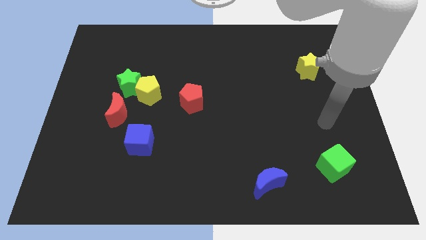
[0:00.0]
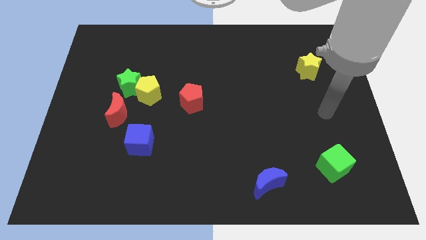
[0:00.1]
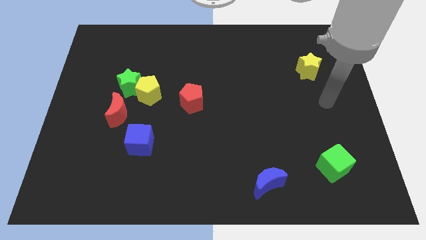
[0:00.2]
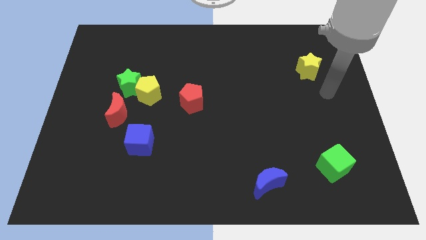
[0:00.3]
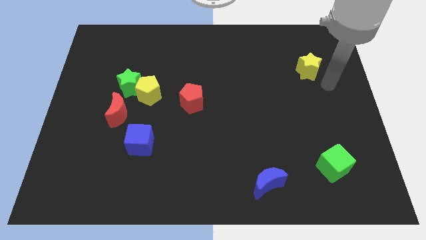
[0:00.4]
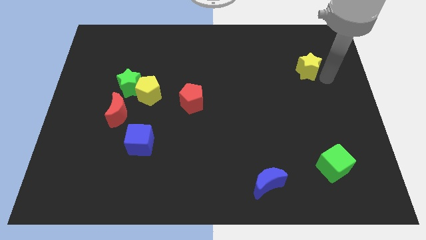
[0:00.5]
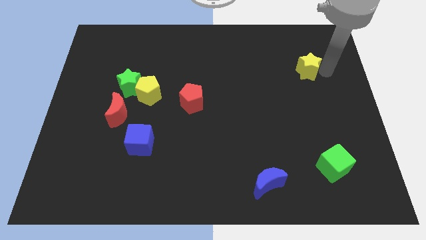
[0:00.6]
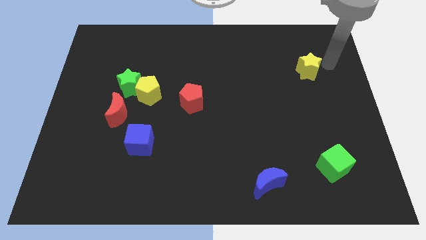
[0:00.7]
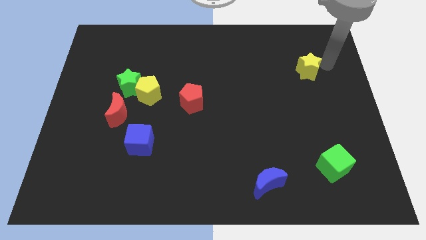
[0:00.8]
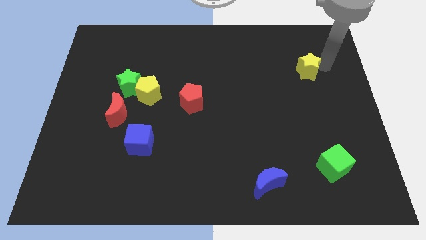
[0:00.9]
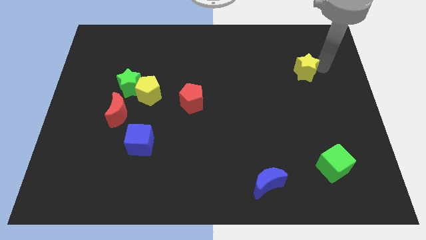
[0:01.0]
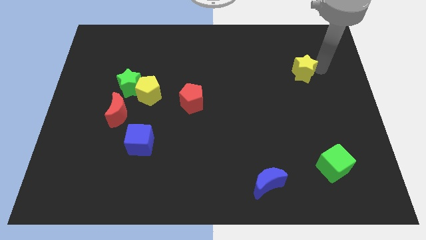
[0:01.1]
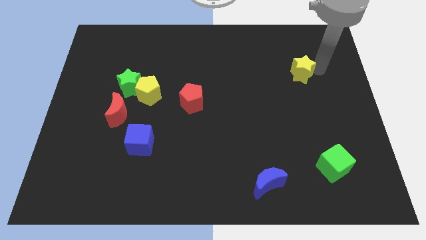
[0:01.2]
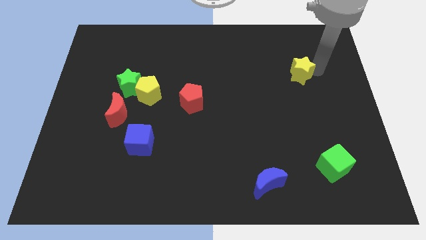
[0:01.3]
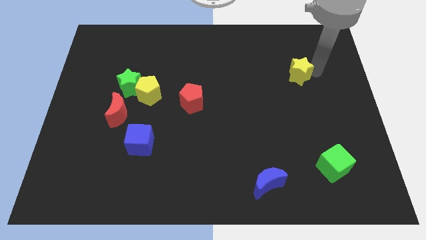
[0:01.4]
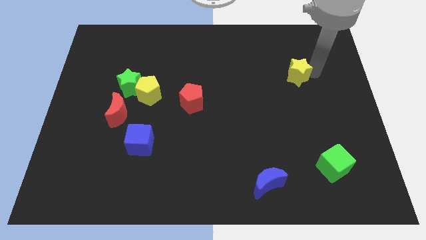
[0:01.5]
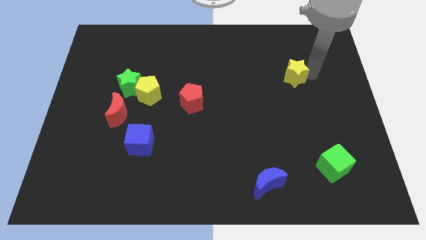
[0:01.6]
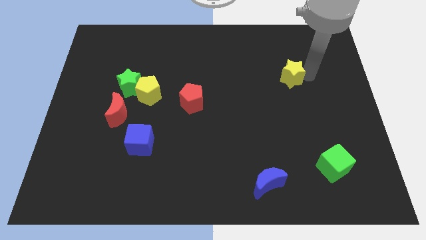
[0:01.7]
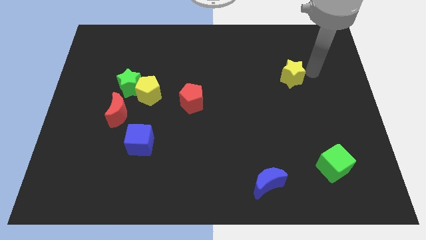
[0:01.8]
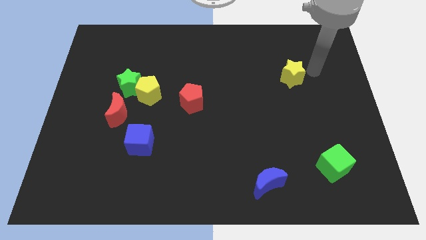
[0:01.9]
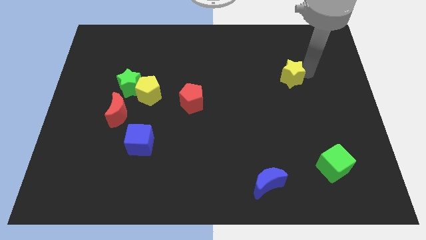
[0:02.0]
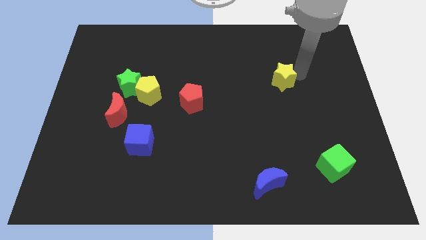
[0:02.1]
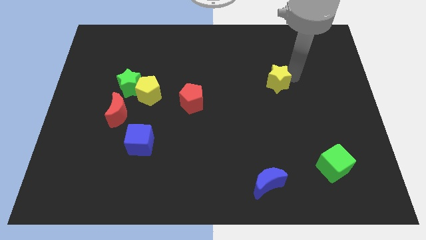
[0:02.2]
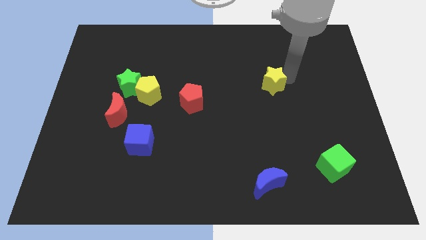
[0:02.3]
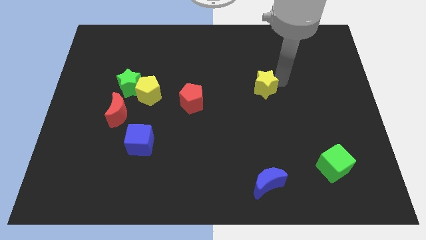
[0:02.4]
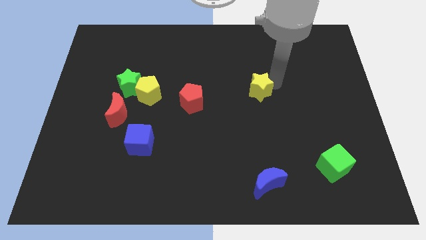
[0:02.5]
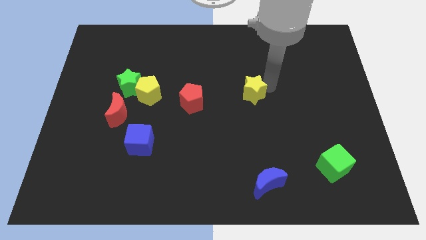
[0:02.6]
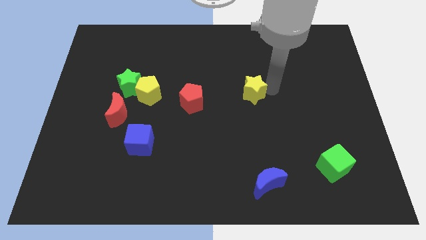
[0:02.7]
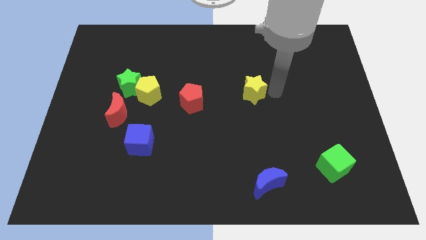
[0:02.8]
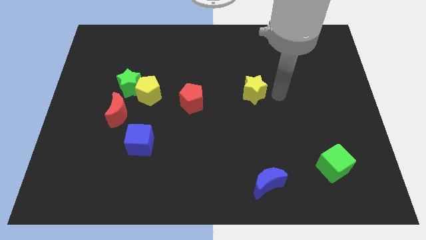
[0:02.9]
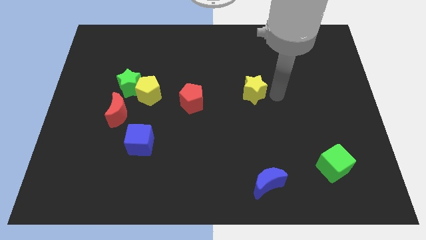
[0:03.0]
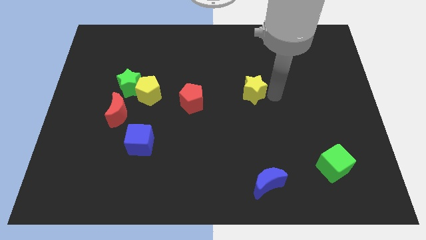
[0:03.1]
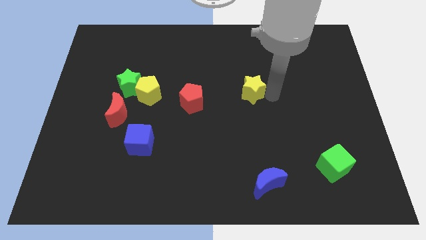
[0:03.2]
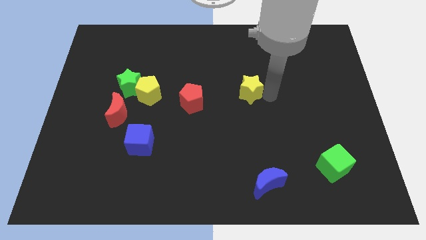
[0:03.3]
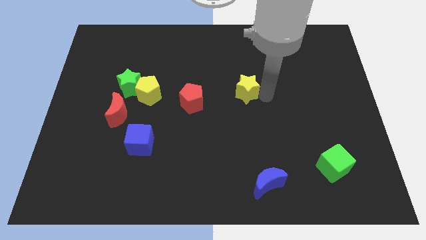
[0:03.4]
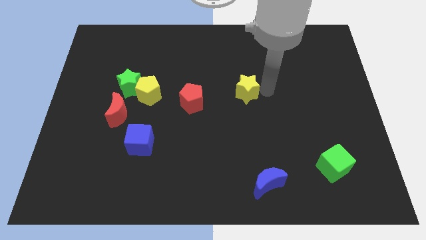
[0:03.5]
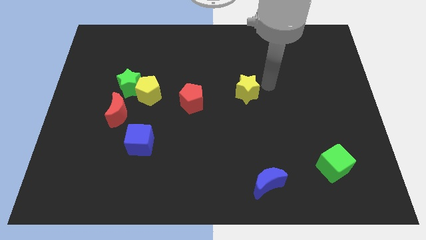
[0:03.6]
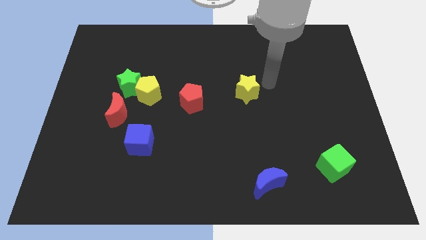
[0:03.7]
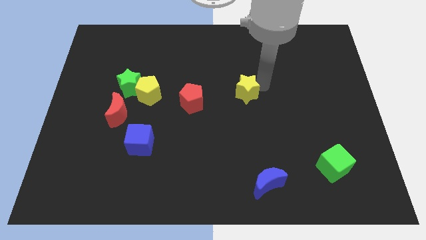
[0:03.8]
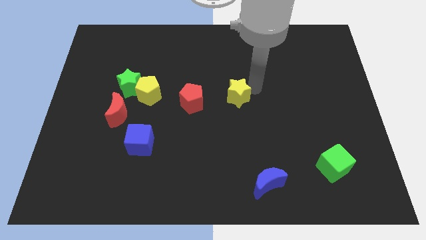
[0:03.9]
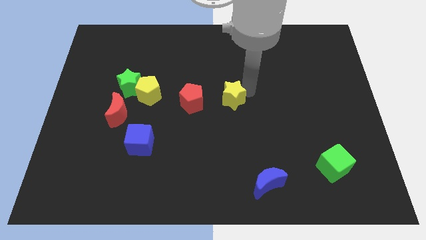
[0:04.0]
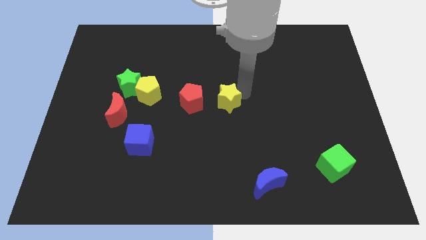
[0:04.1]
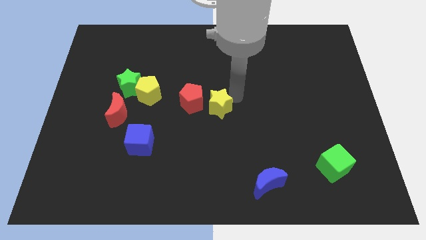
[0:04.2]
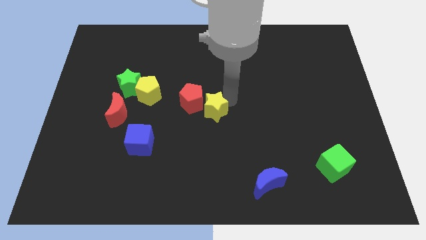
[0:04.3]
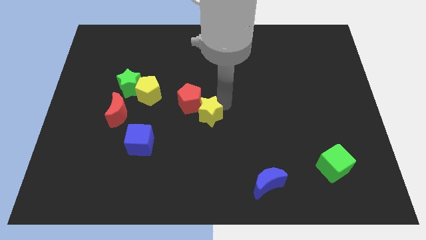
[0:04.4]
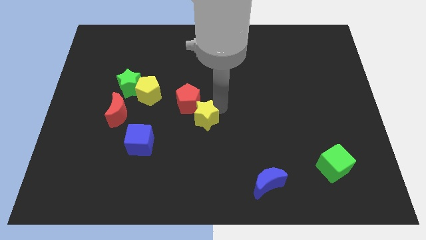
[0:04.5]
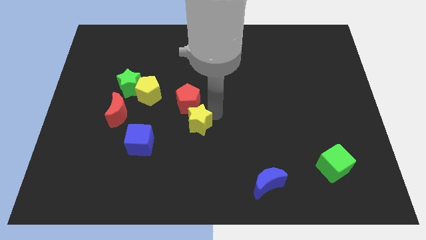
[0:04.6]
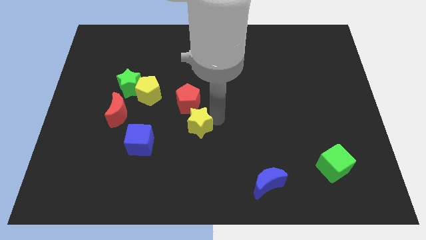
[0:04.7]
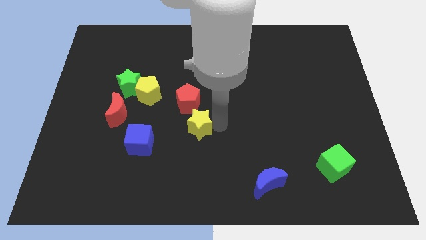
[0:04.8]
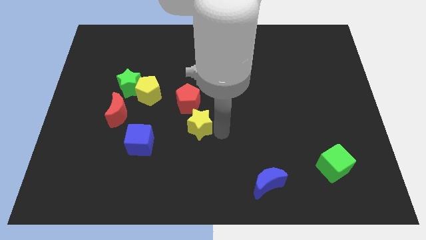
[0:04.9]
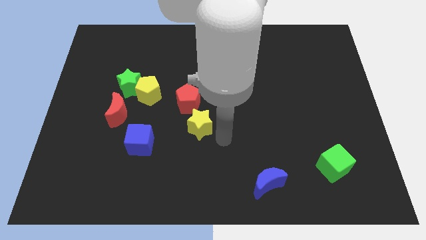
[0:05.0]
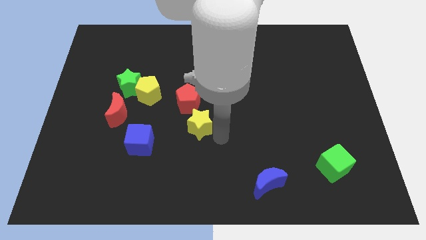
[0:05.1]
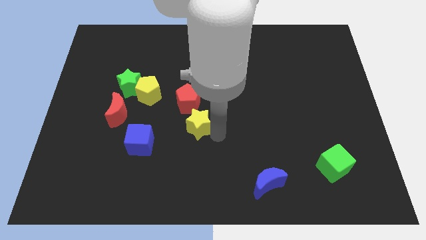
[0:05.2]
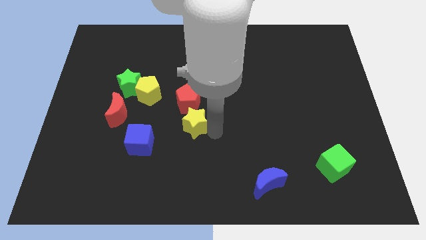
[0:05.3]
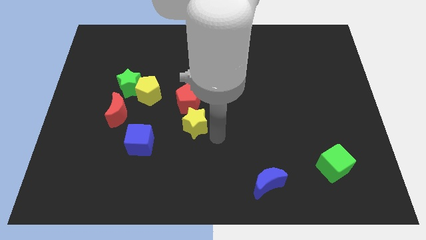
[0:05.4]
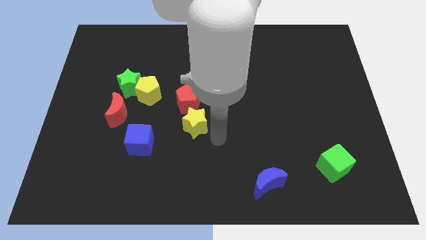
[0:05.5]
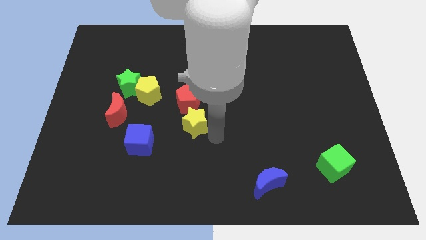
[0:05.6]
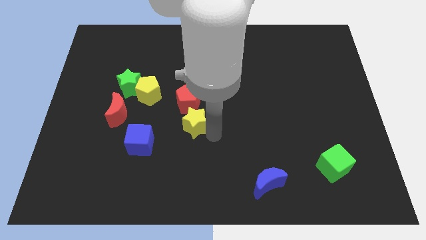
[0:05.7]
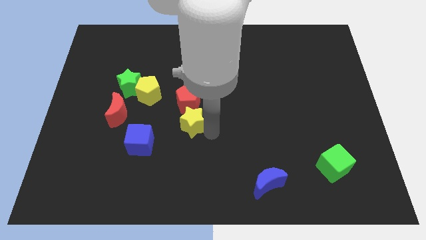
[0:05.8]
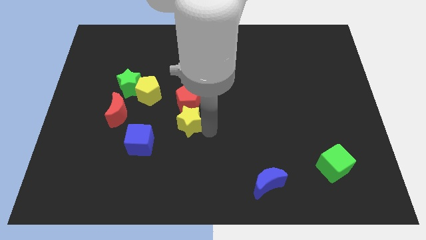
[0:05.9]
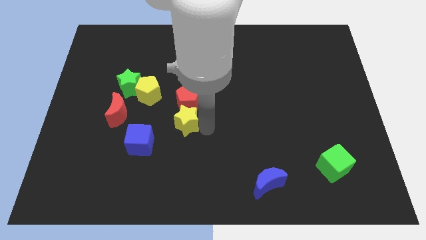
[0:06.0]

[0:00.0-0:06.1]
push the yellow star to the bottom right side of the yellow pentagon

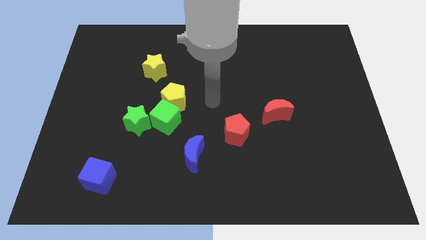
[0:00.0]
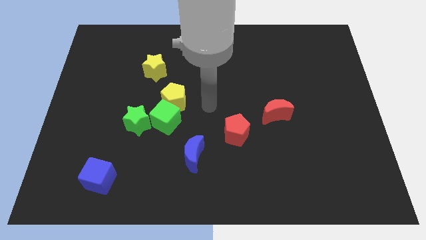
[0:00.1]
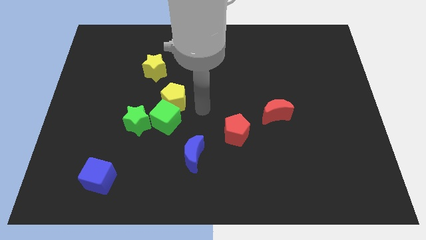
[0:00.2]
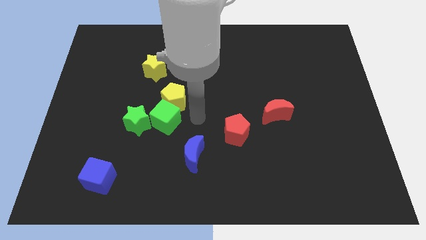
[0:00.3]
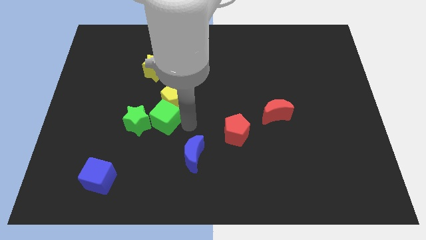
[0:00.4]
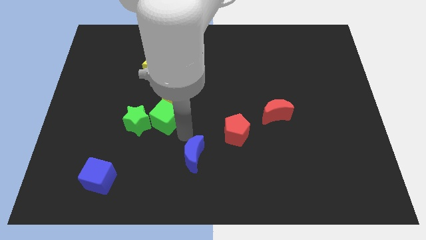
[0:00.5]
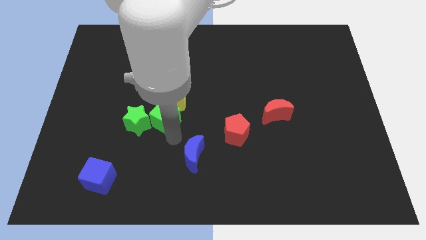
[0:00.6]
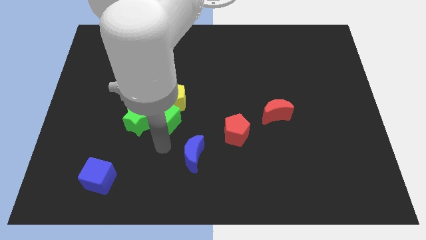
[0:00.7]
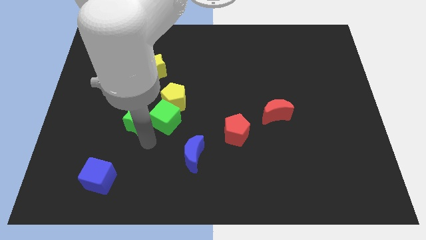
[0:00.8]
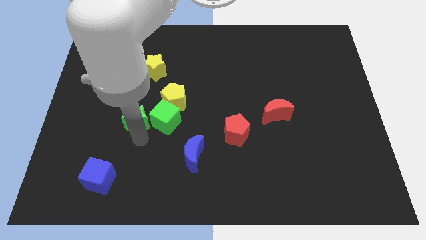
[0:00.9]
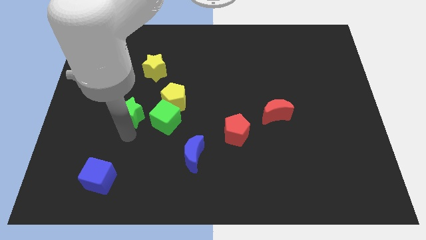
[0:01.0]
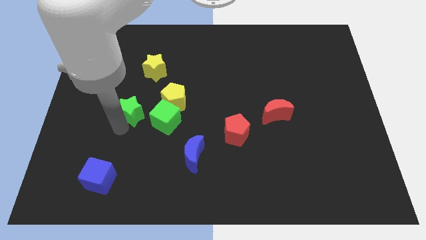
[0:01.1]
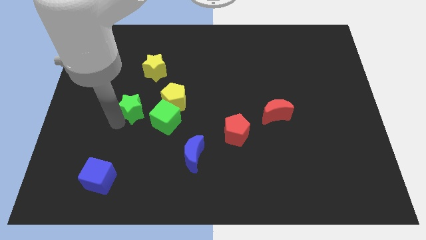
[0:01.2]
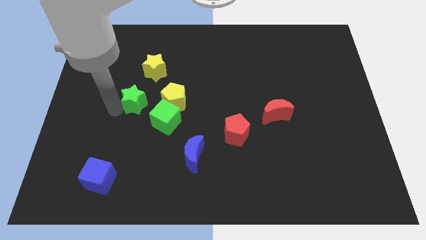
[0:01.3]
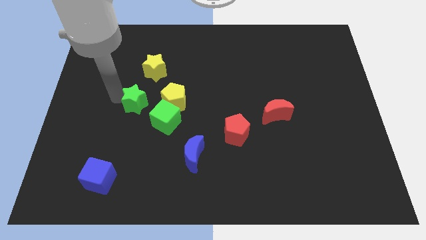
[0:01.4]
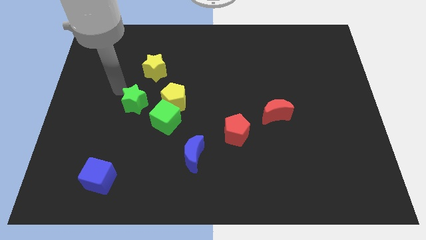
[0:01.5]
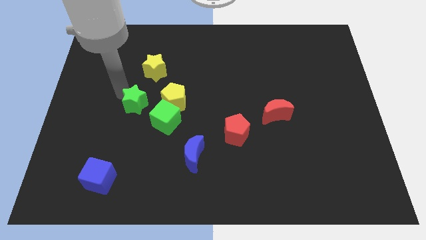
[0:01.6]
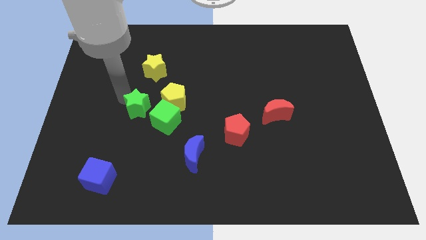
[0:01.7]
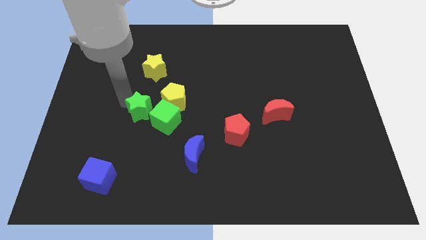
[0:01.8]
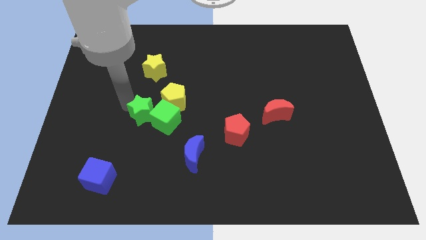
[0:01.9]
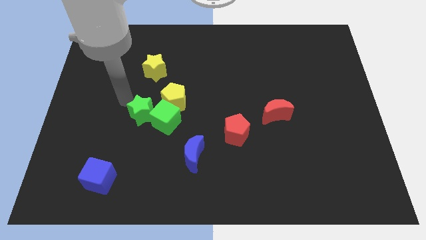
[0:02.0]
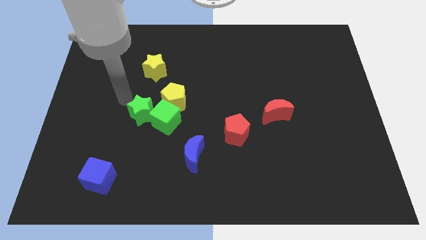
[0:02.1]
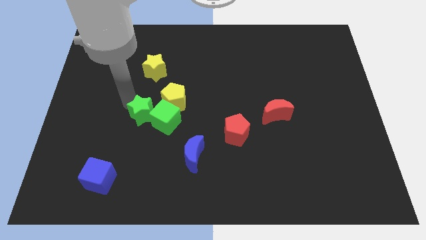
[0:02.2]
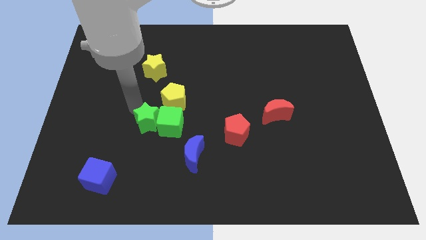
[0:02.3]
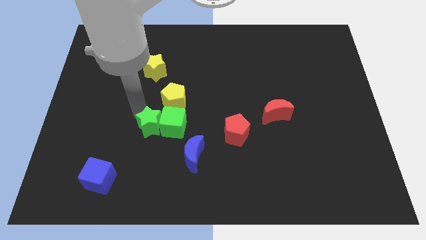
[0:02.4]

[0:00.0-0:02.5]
slide the green star below the yellow pentagon
